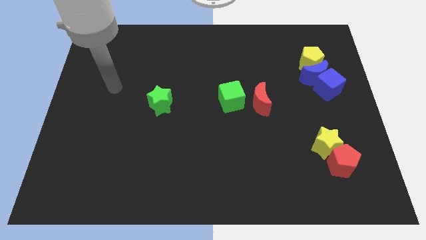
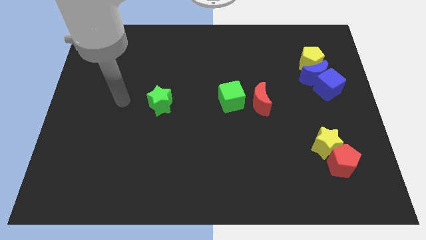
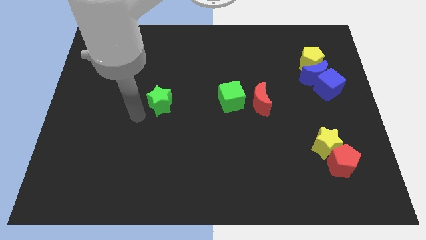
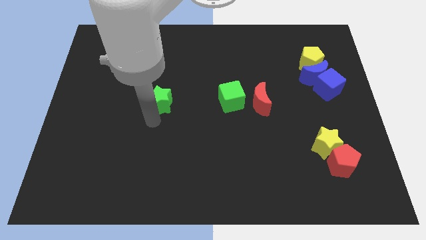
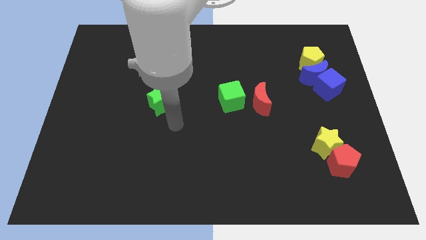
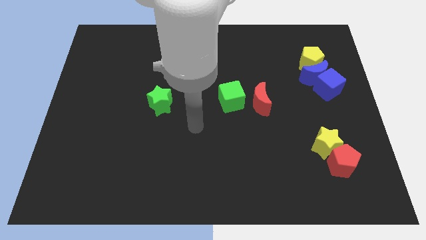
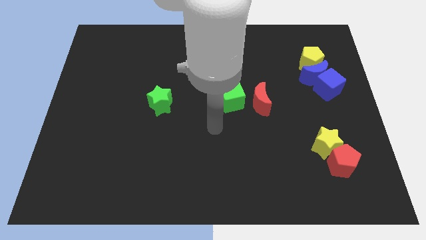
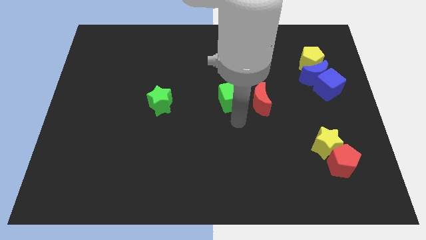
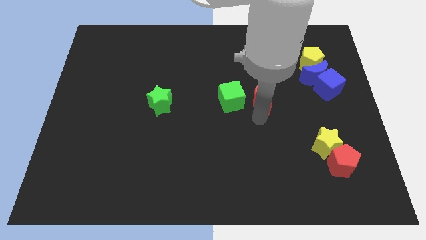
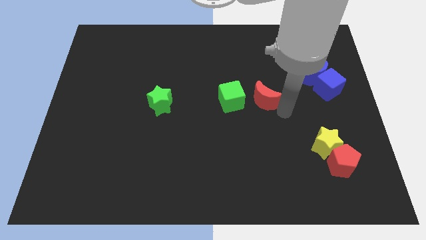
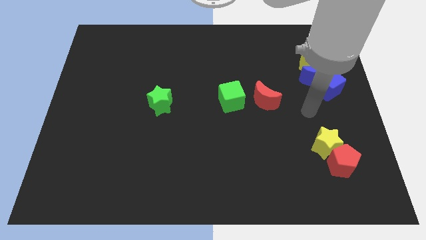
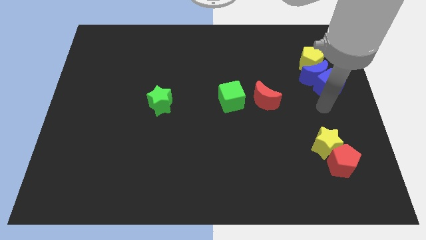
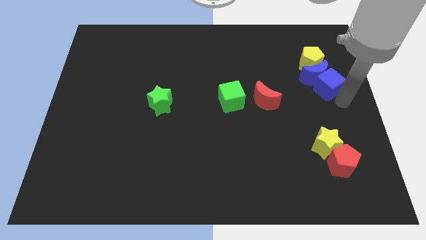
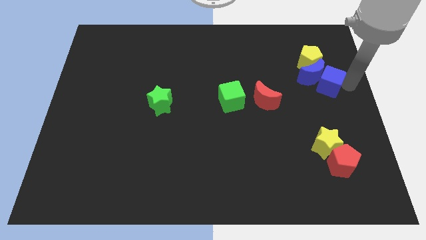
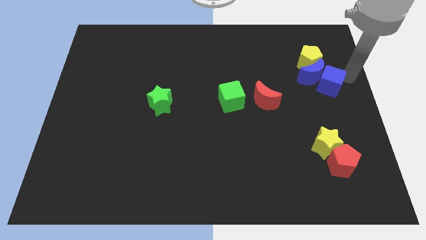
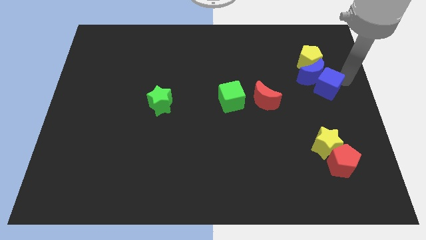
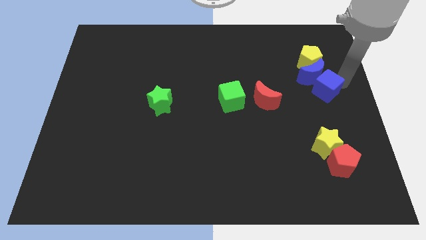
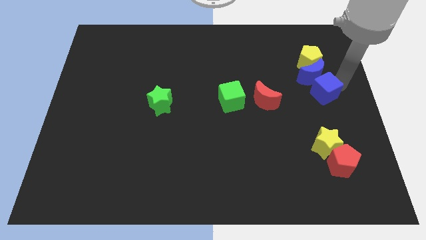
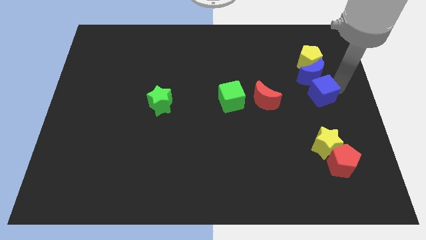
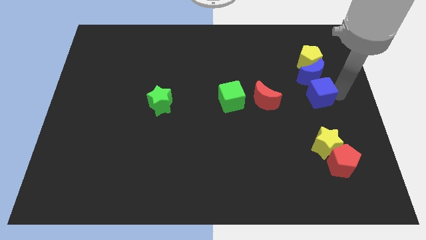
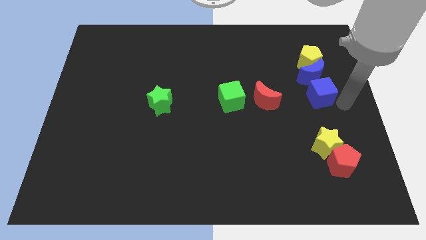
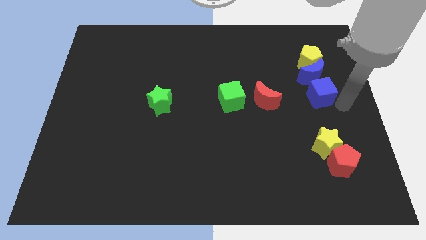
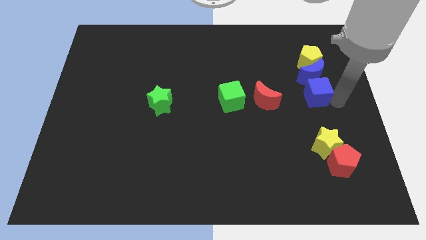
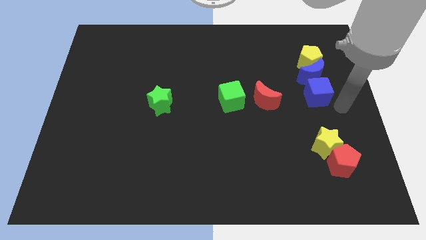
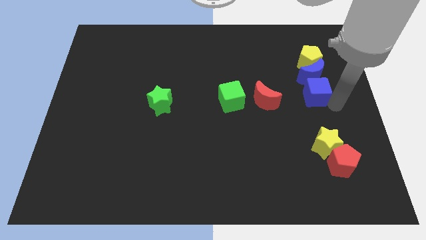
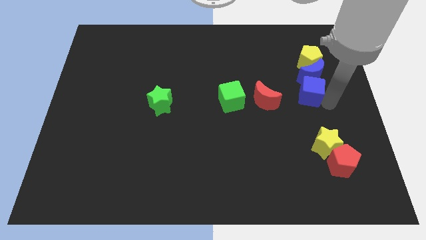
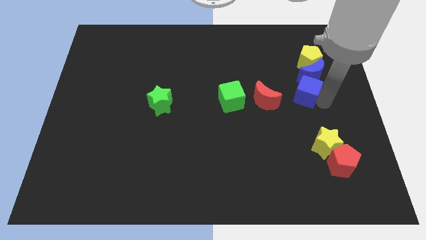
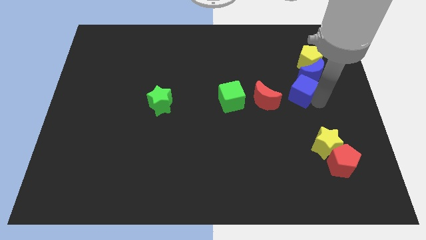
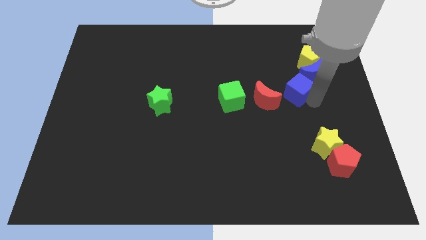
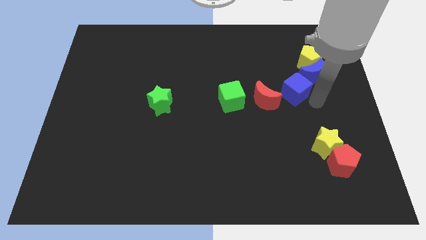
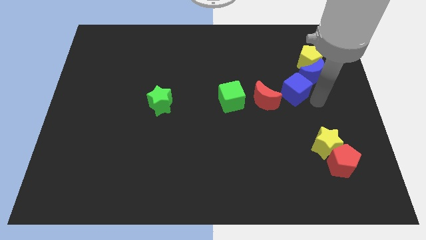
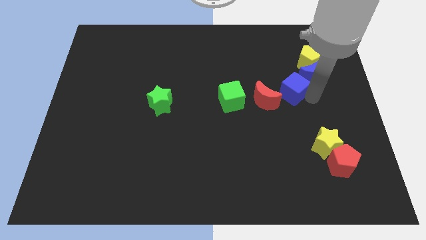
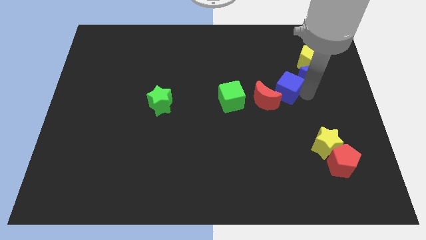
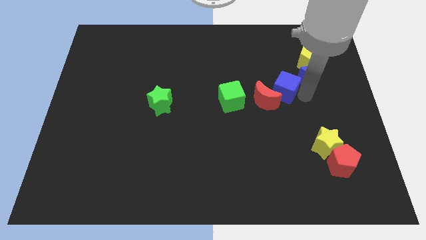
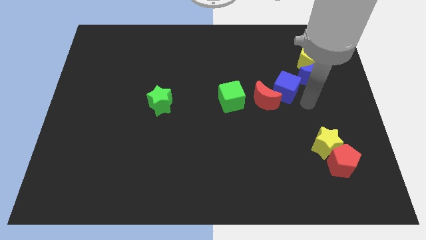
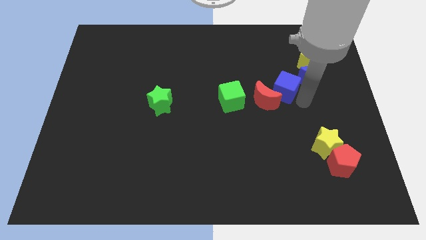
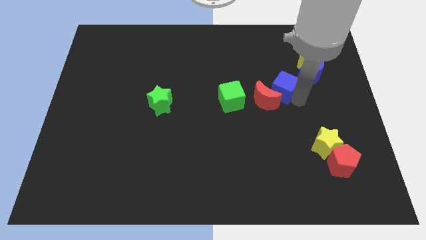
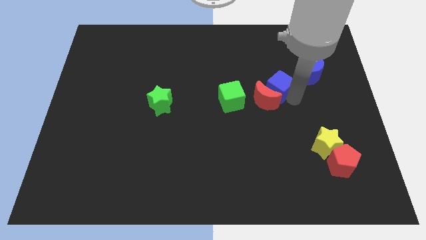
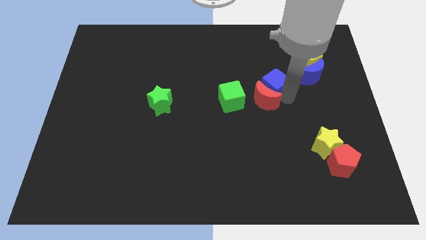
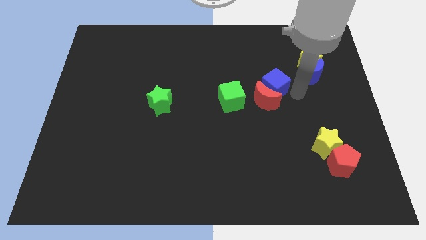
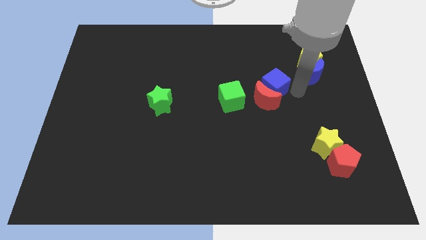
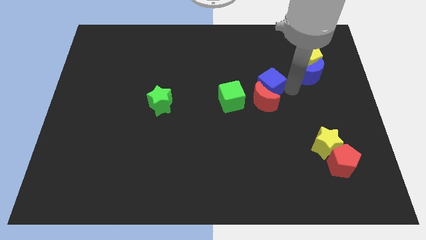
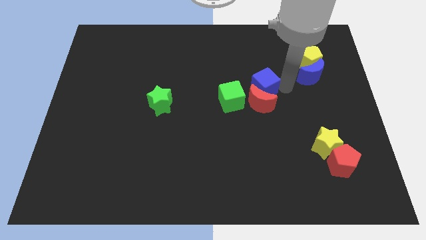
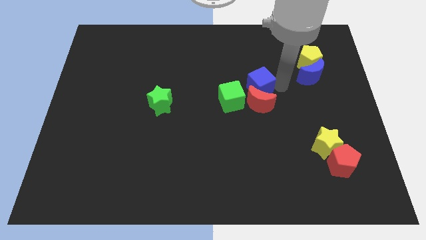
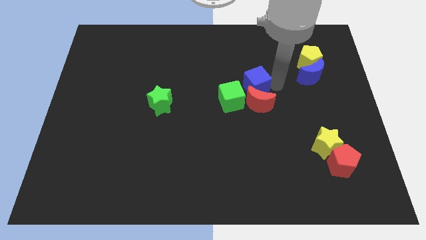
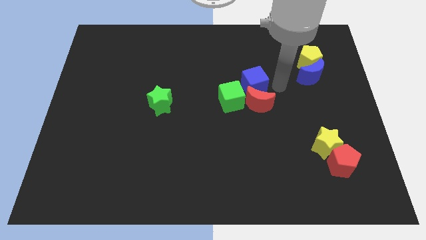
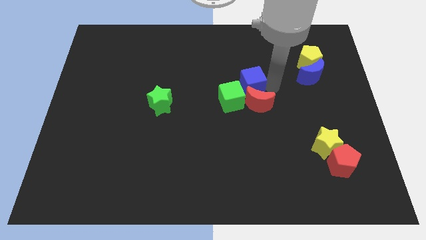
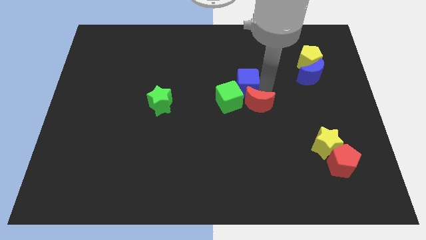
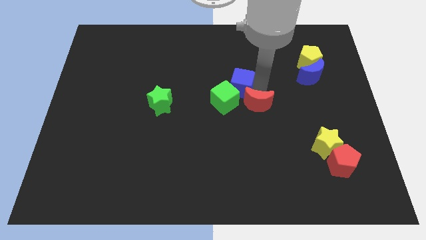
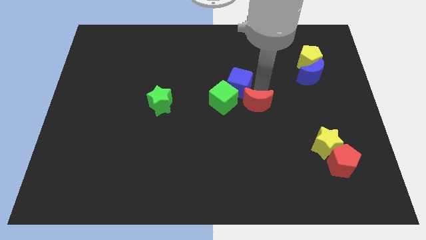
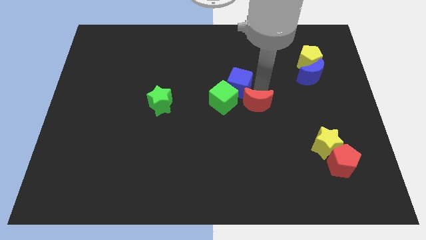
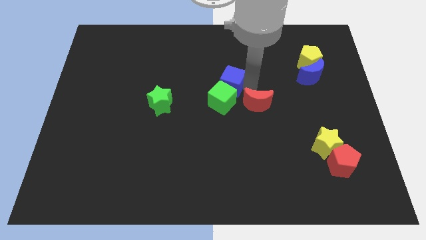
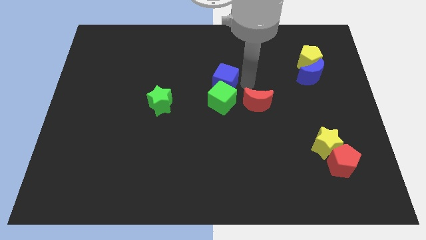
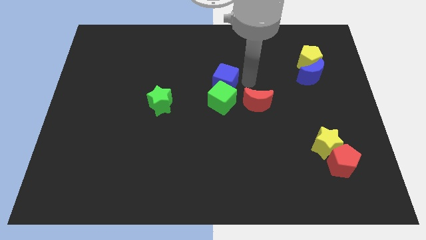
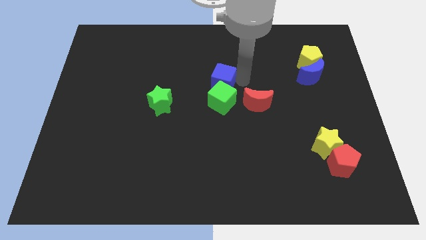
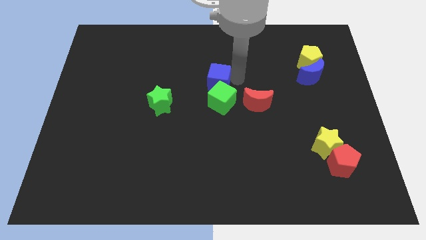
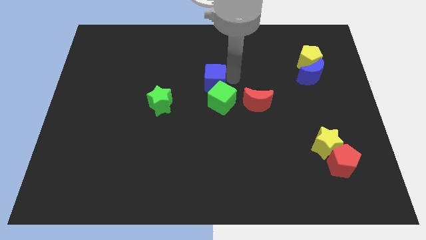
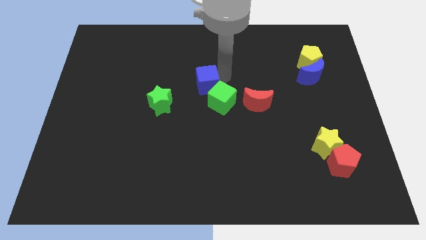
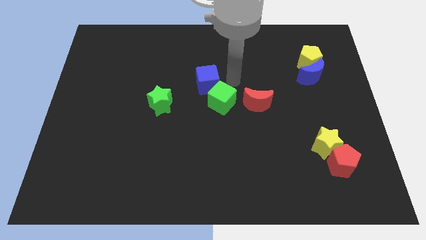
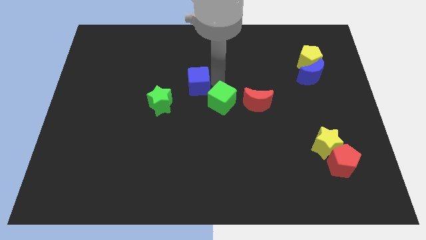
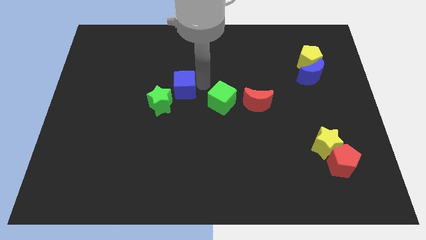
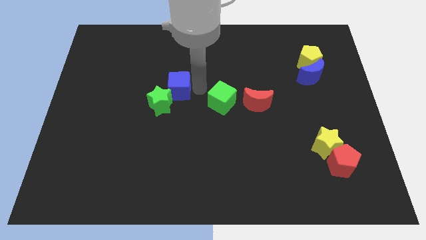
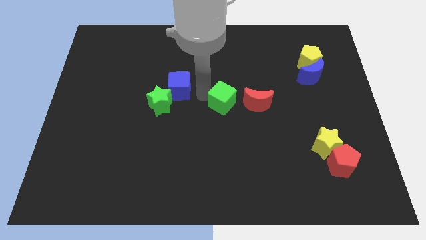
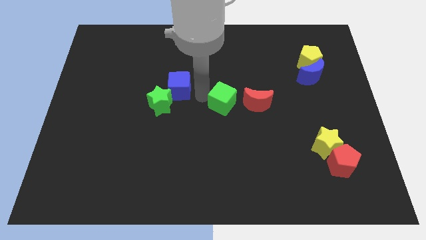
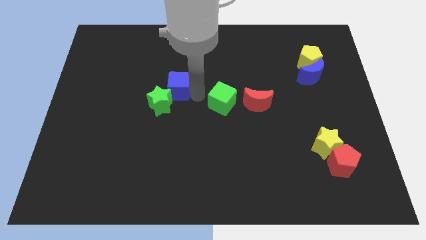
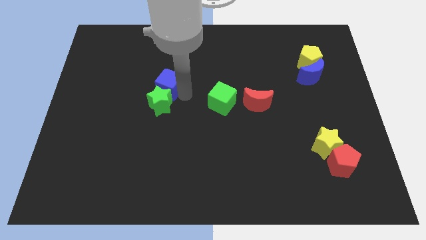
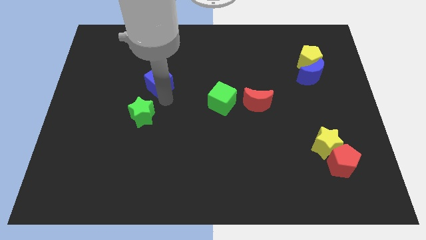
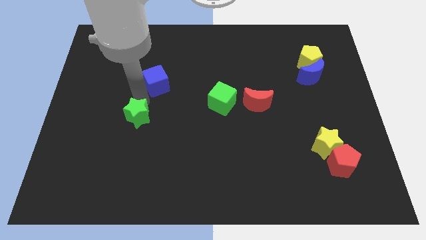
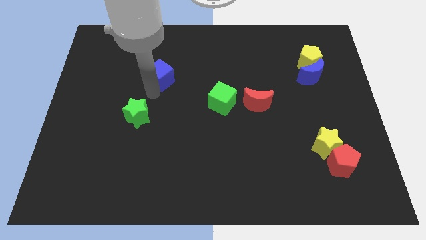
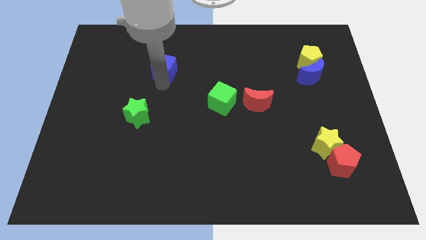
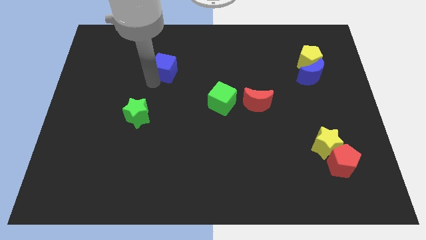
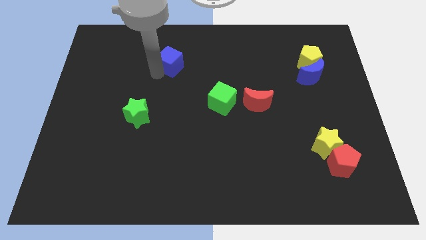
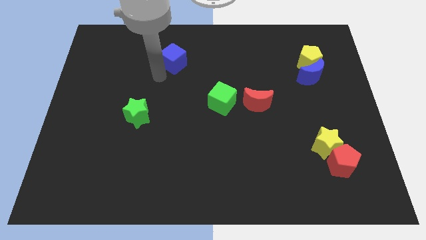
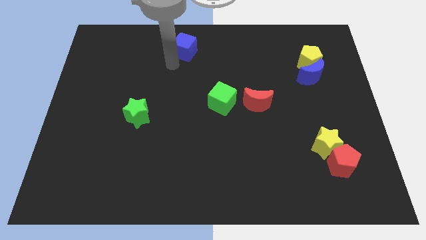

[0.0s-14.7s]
move the blue cube to the top side
